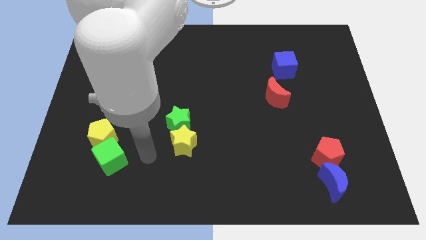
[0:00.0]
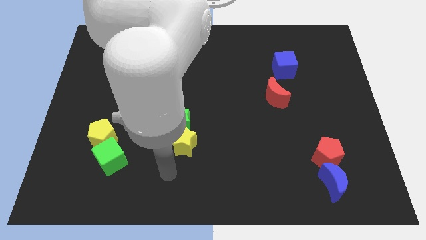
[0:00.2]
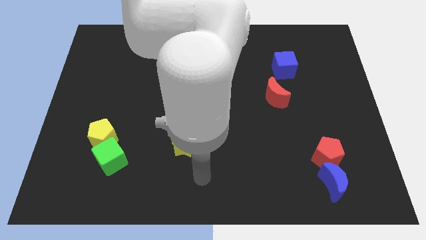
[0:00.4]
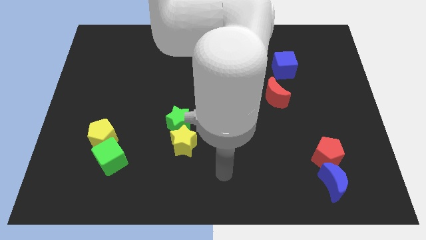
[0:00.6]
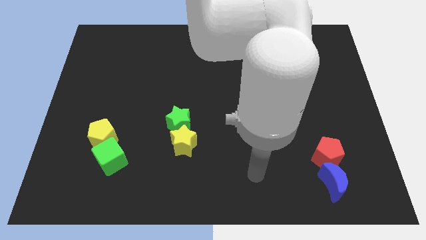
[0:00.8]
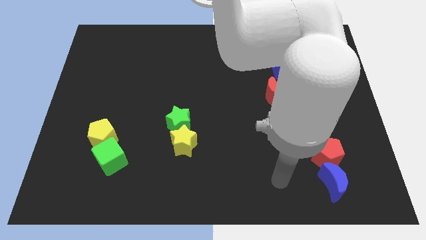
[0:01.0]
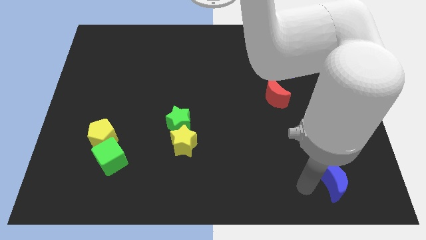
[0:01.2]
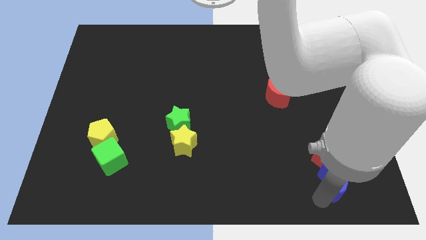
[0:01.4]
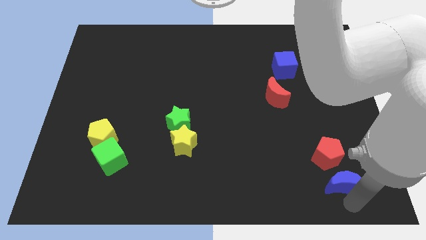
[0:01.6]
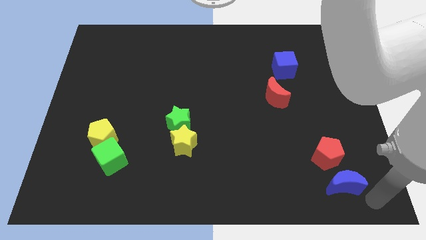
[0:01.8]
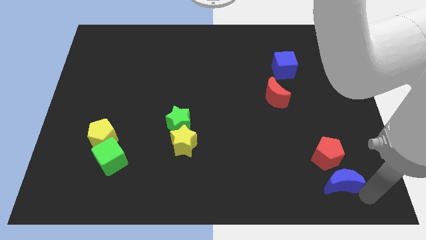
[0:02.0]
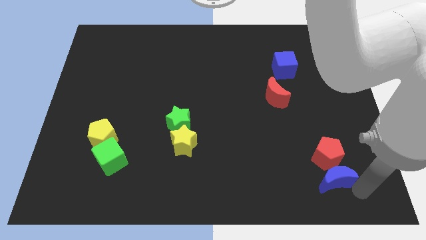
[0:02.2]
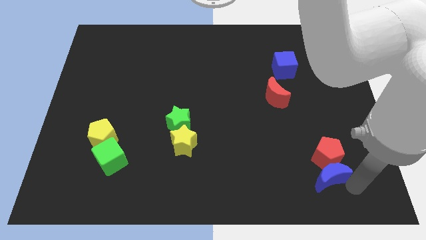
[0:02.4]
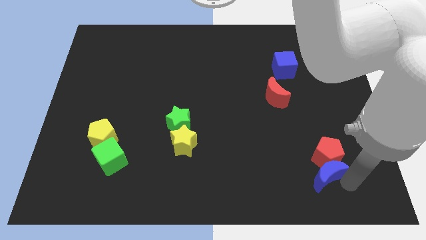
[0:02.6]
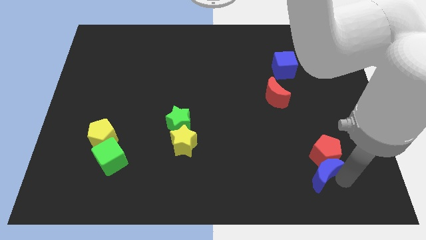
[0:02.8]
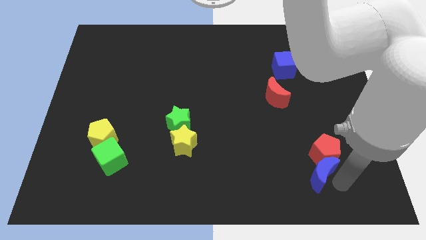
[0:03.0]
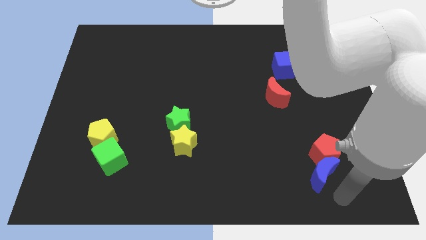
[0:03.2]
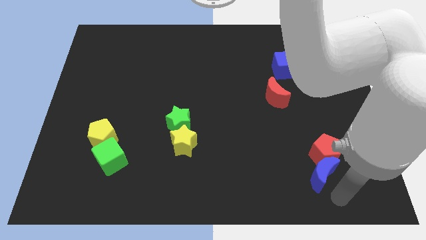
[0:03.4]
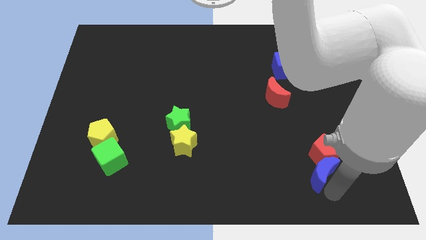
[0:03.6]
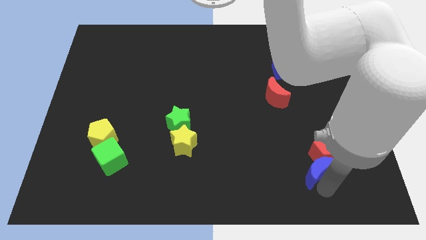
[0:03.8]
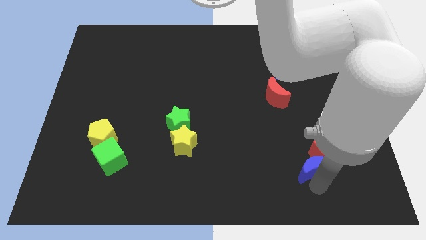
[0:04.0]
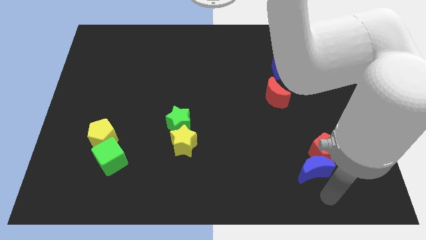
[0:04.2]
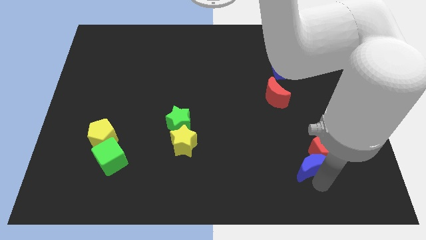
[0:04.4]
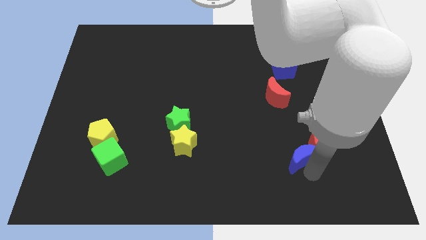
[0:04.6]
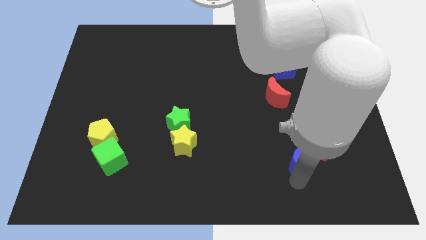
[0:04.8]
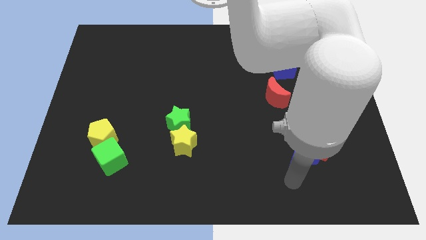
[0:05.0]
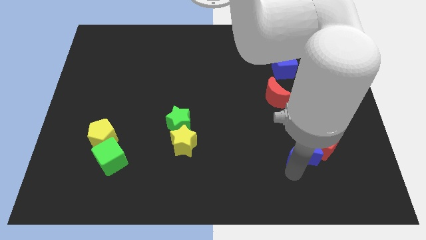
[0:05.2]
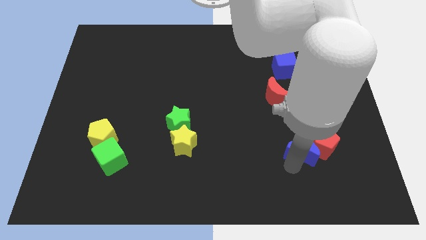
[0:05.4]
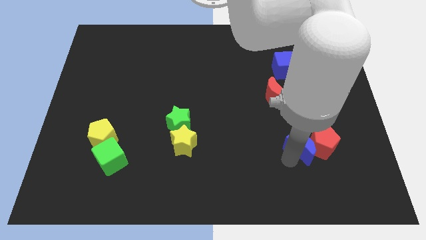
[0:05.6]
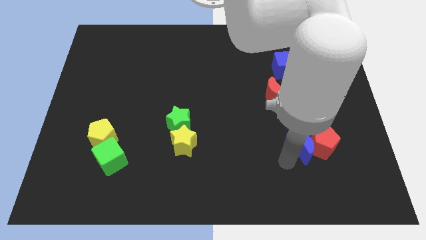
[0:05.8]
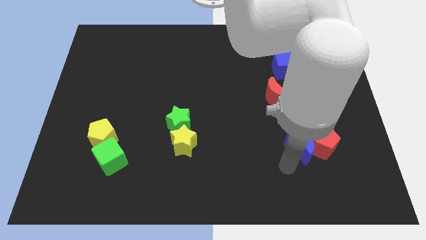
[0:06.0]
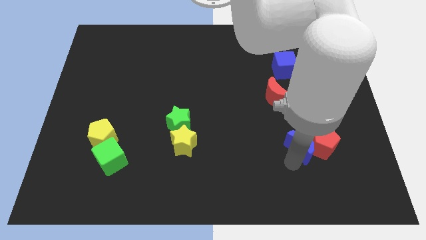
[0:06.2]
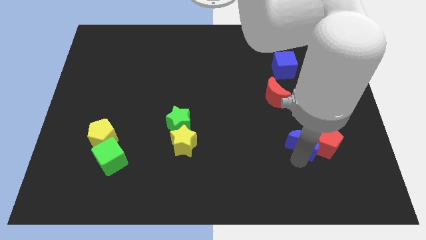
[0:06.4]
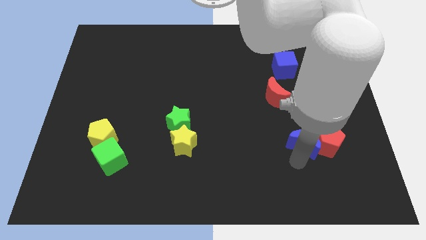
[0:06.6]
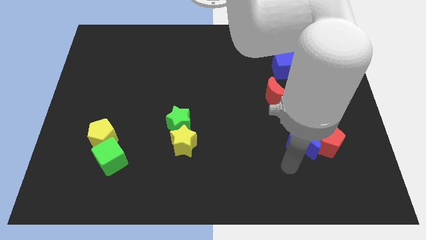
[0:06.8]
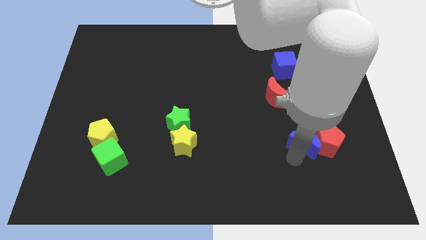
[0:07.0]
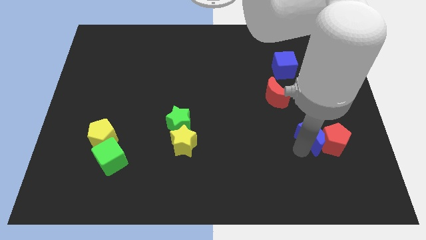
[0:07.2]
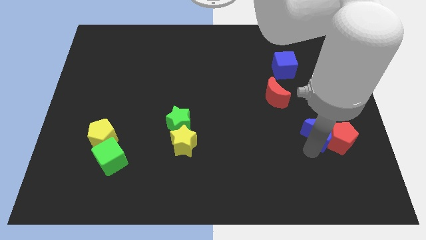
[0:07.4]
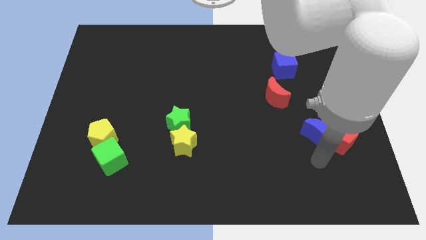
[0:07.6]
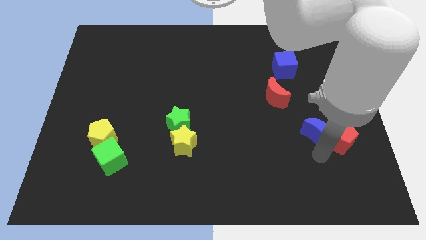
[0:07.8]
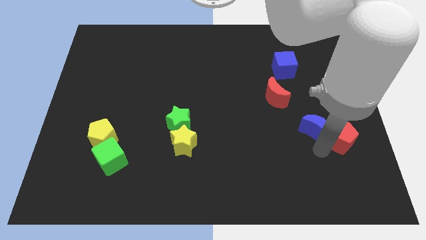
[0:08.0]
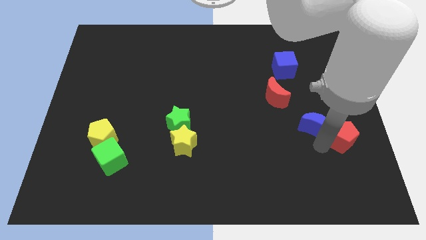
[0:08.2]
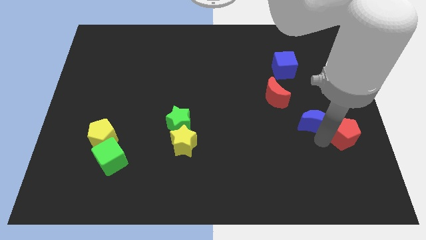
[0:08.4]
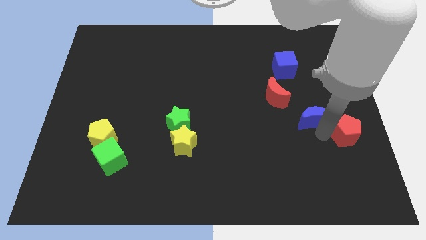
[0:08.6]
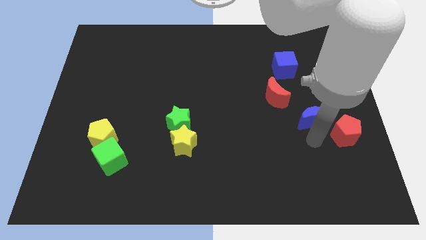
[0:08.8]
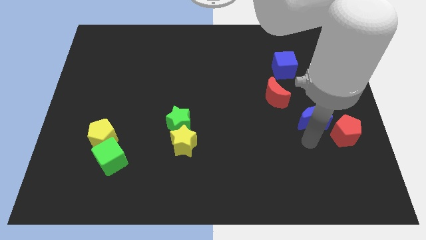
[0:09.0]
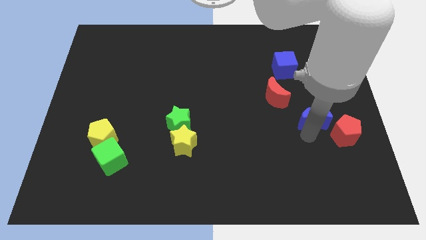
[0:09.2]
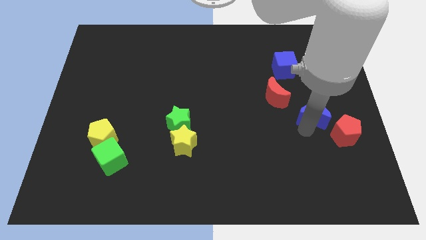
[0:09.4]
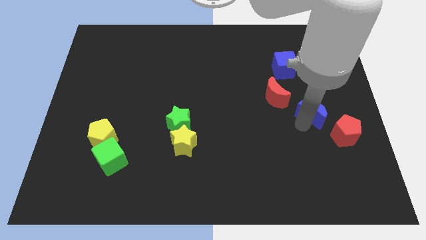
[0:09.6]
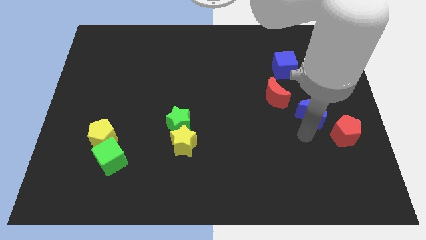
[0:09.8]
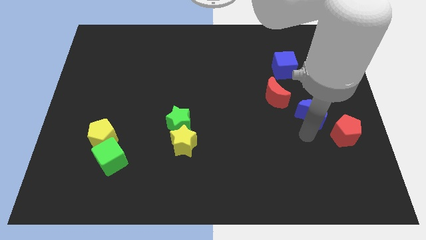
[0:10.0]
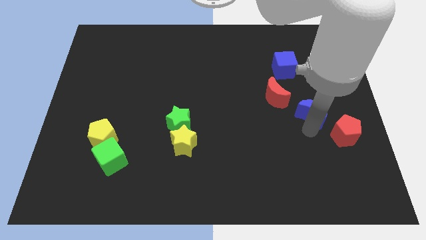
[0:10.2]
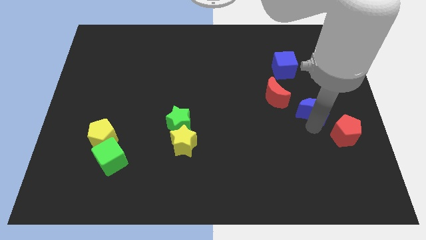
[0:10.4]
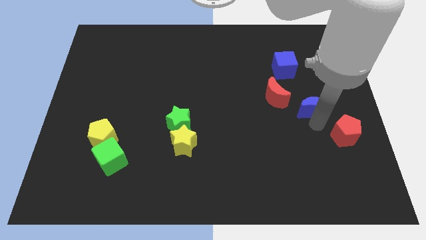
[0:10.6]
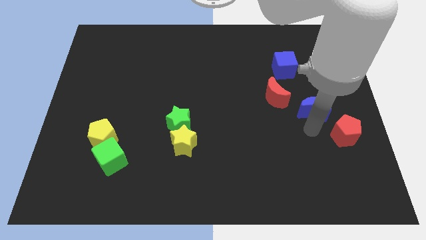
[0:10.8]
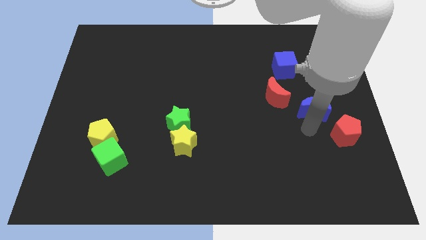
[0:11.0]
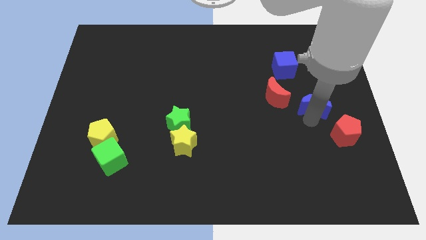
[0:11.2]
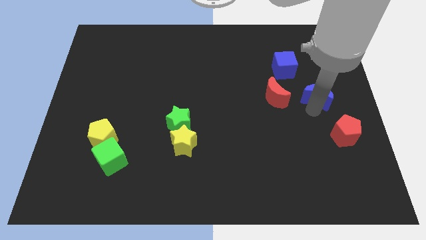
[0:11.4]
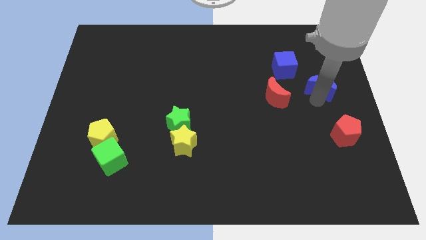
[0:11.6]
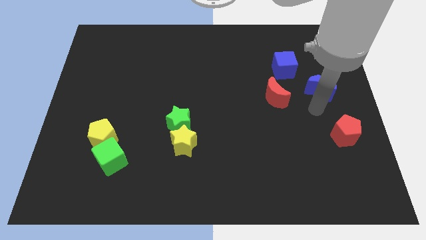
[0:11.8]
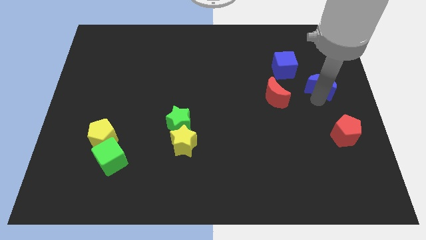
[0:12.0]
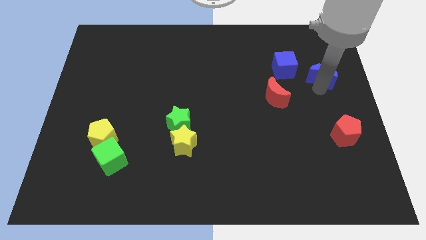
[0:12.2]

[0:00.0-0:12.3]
slide the blue moon just right of the blue cube

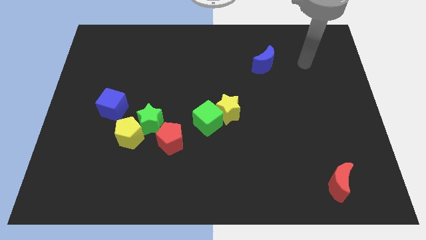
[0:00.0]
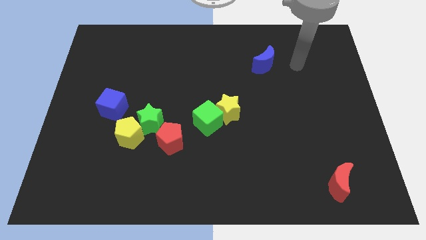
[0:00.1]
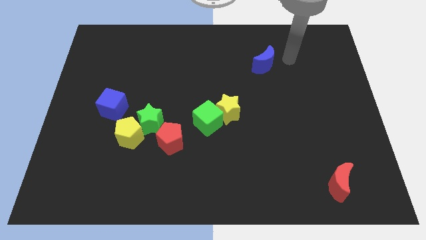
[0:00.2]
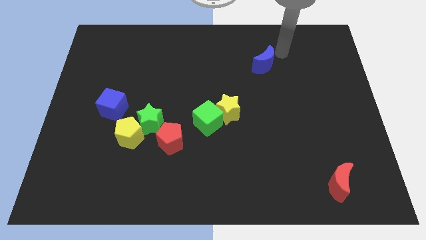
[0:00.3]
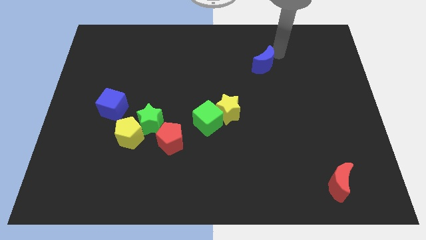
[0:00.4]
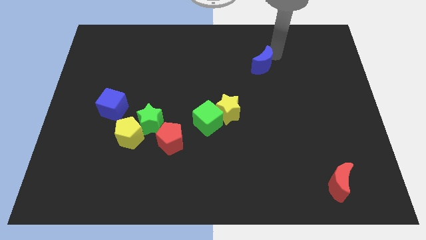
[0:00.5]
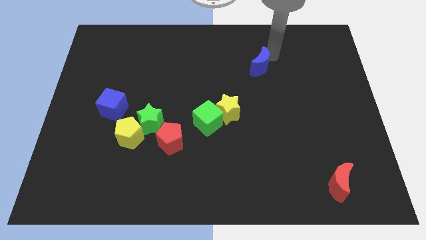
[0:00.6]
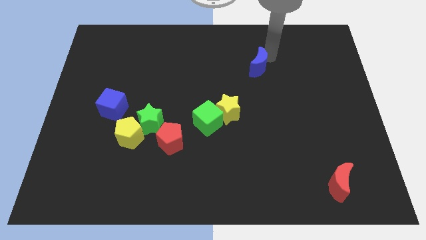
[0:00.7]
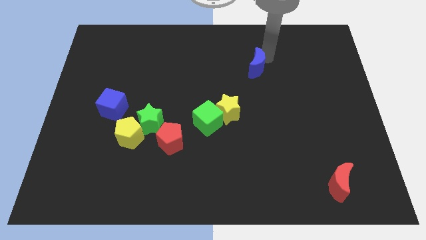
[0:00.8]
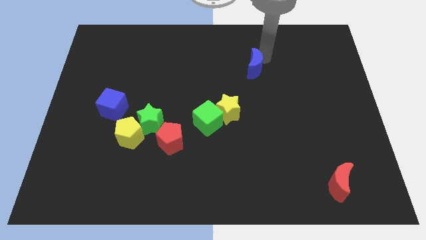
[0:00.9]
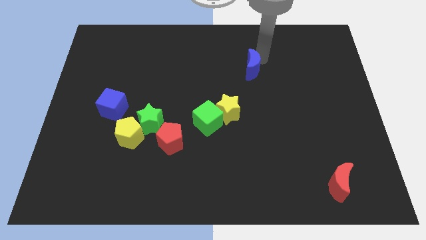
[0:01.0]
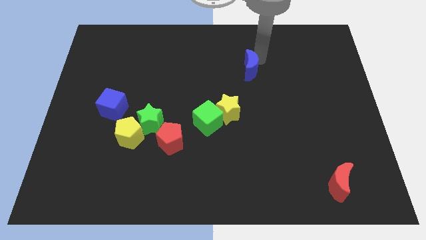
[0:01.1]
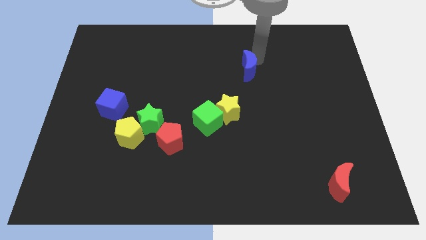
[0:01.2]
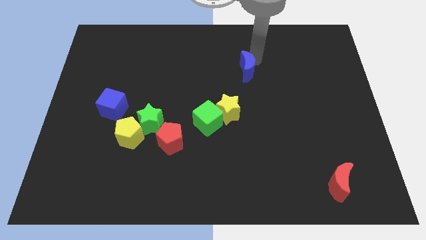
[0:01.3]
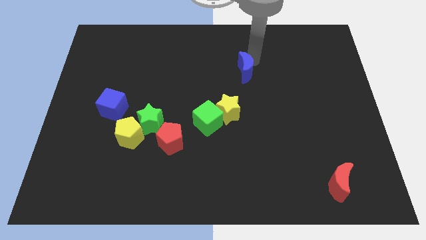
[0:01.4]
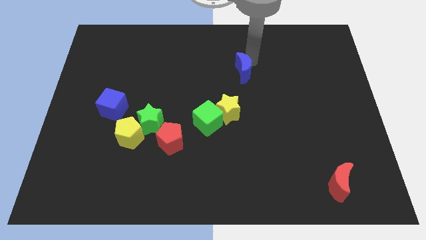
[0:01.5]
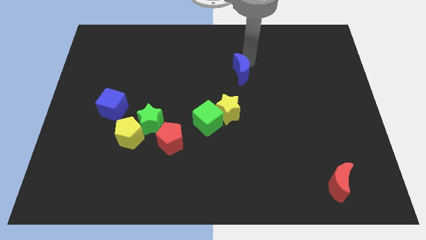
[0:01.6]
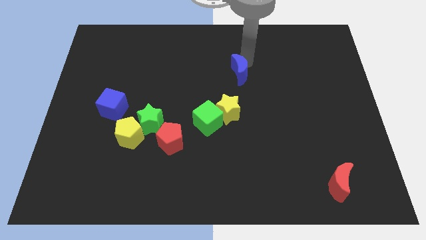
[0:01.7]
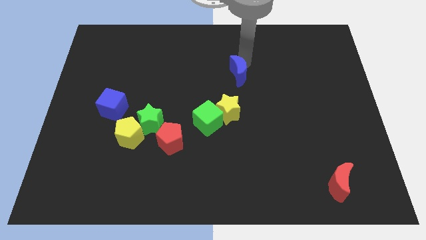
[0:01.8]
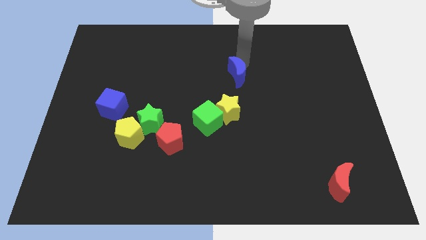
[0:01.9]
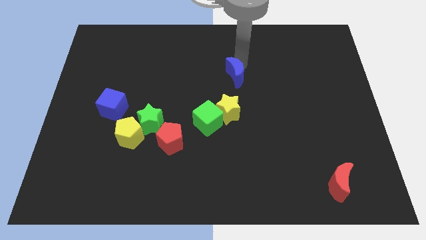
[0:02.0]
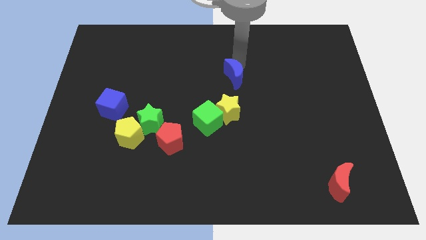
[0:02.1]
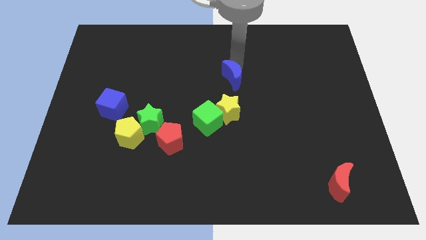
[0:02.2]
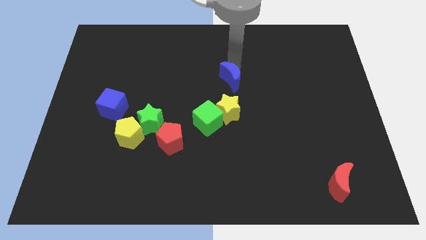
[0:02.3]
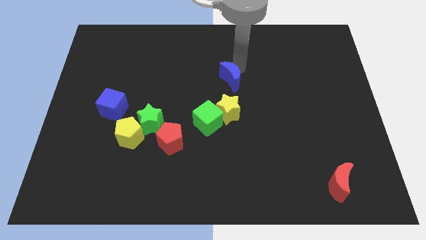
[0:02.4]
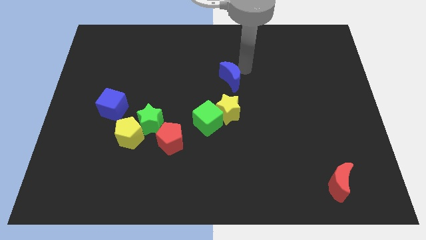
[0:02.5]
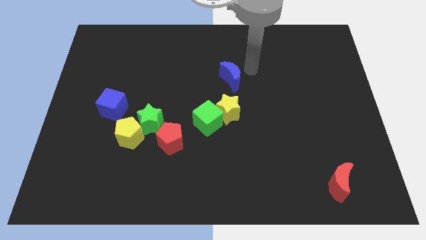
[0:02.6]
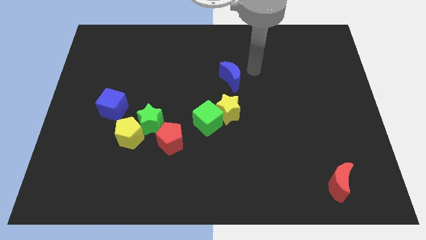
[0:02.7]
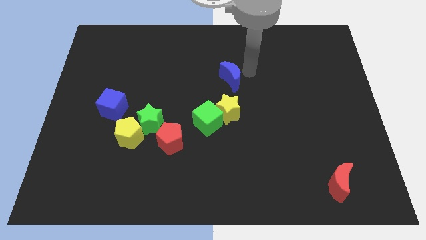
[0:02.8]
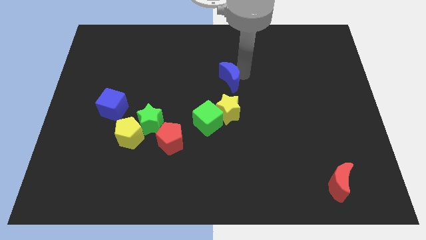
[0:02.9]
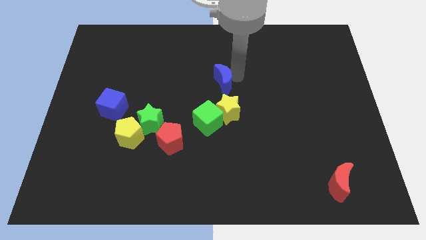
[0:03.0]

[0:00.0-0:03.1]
put the blue moon to the top side of the green cube
